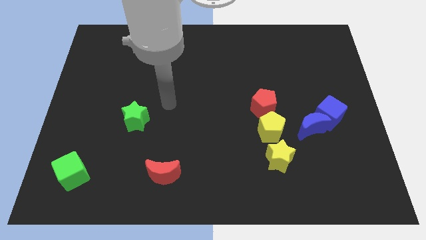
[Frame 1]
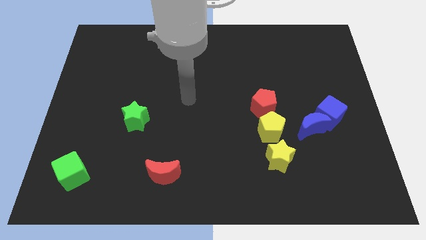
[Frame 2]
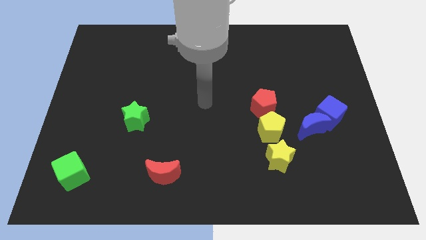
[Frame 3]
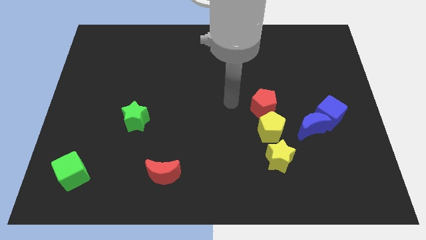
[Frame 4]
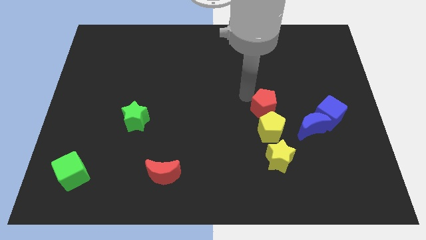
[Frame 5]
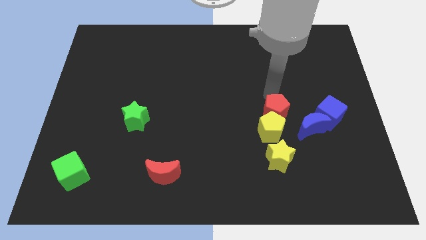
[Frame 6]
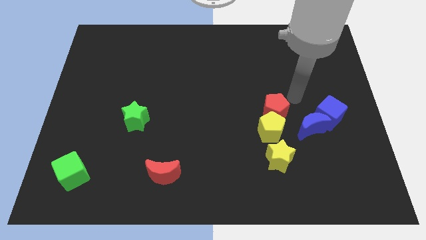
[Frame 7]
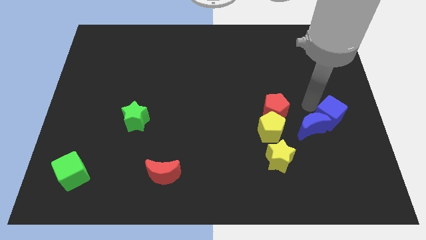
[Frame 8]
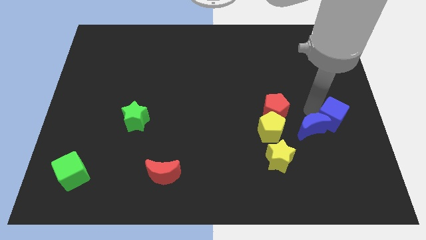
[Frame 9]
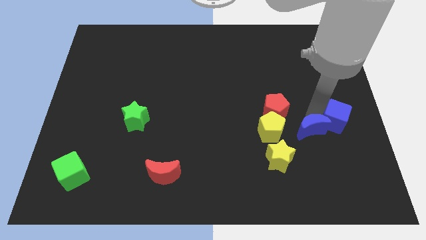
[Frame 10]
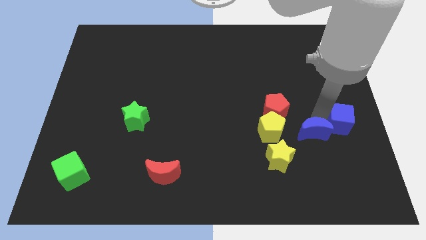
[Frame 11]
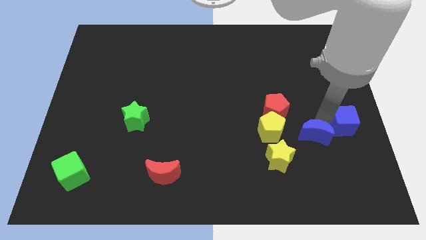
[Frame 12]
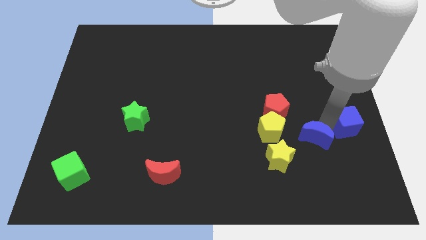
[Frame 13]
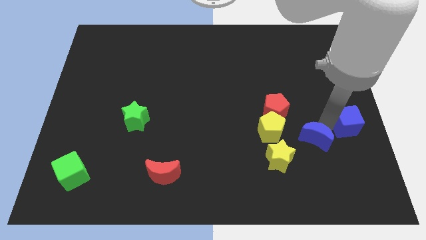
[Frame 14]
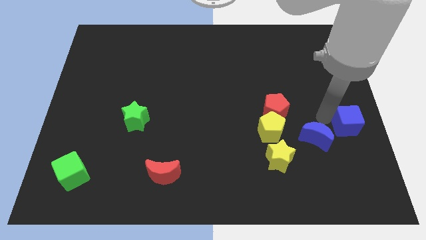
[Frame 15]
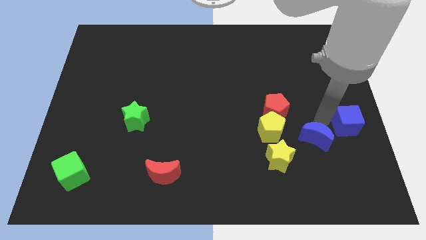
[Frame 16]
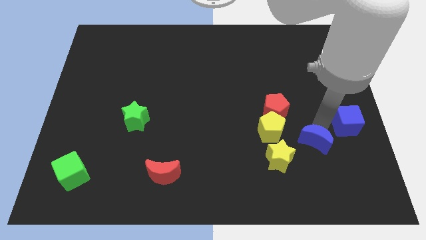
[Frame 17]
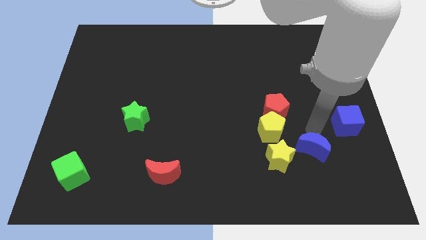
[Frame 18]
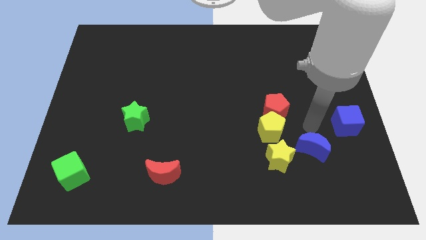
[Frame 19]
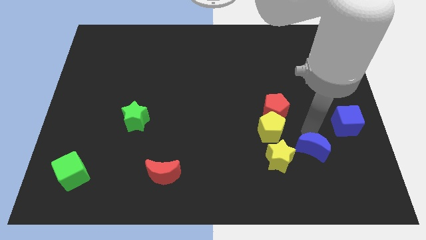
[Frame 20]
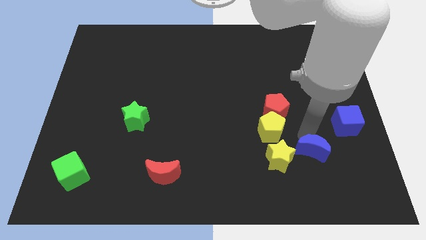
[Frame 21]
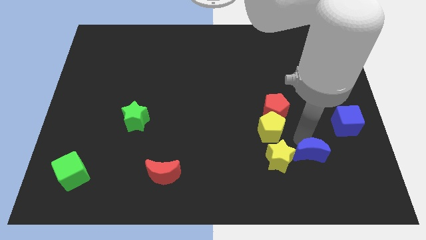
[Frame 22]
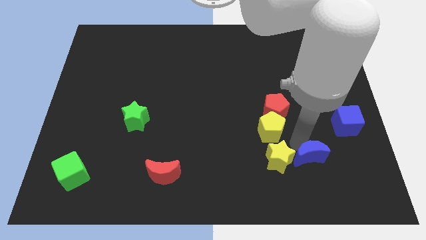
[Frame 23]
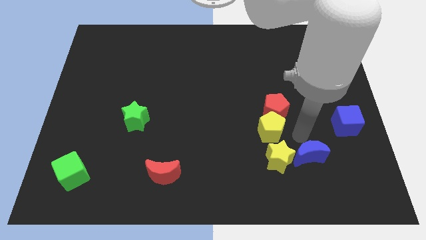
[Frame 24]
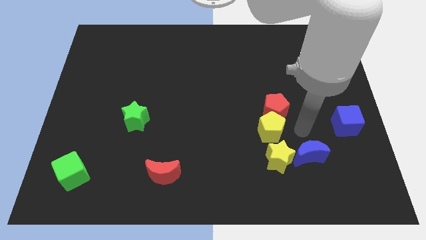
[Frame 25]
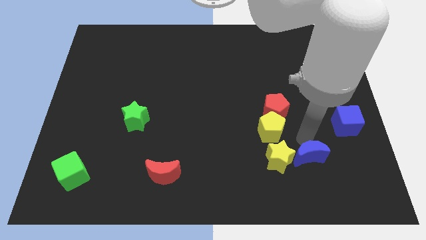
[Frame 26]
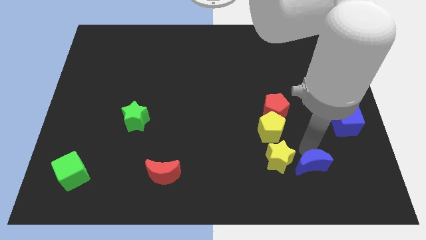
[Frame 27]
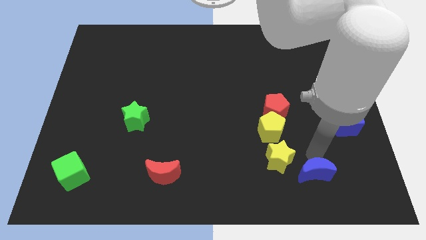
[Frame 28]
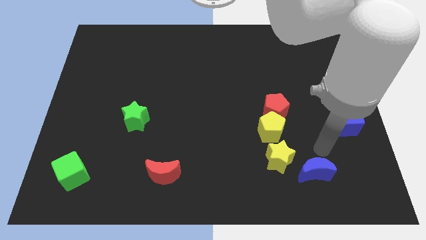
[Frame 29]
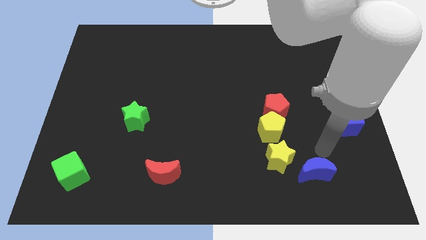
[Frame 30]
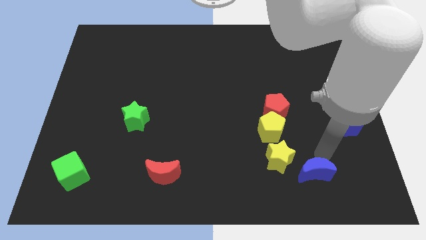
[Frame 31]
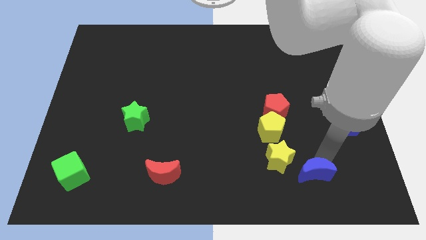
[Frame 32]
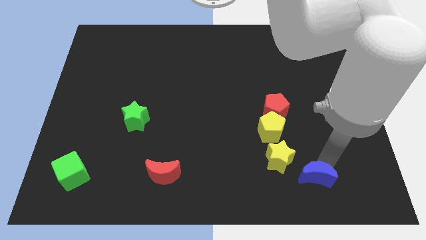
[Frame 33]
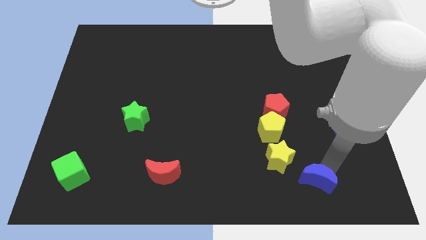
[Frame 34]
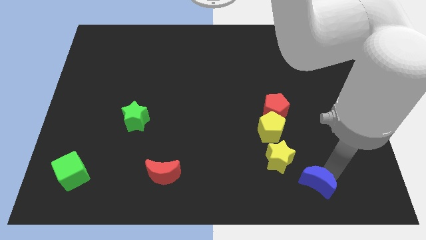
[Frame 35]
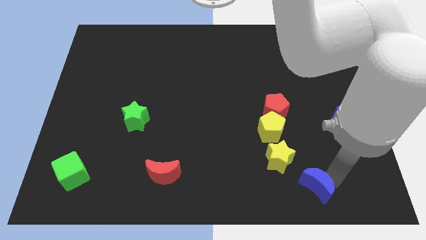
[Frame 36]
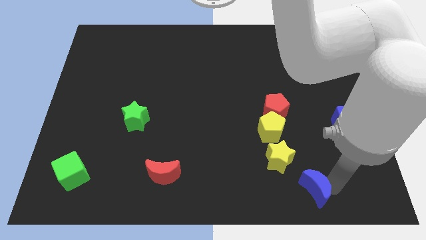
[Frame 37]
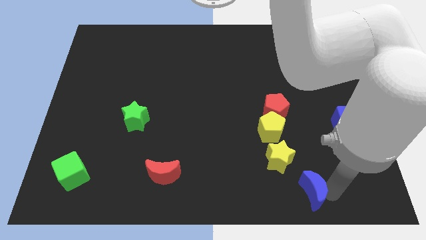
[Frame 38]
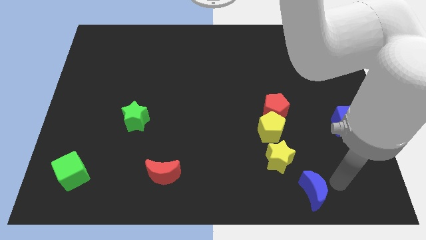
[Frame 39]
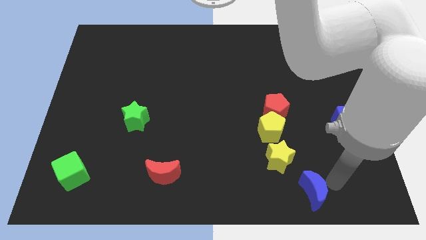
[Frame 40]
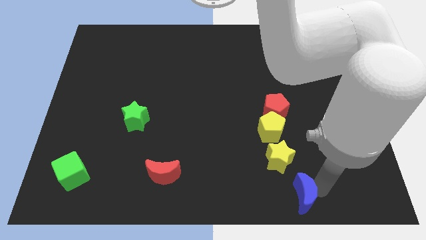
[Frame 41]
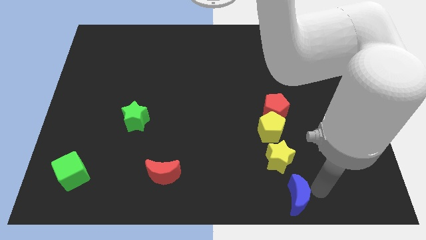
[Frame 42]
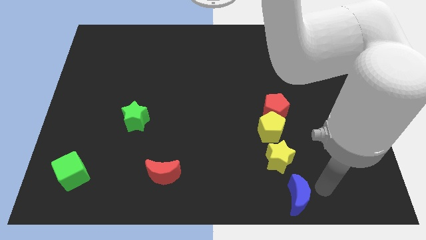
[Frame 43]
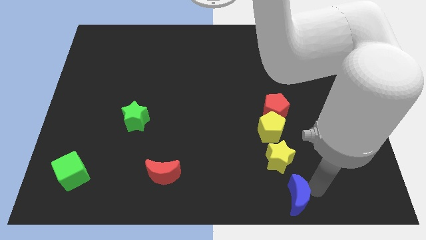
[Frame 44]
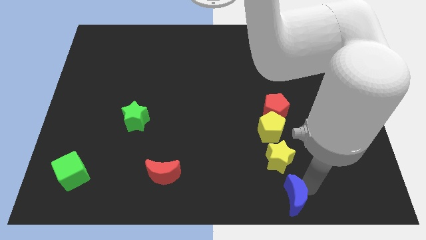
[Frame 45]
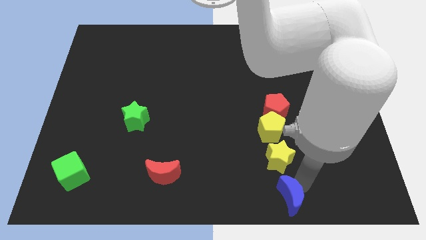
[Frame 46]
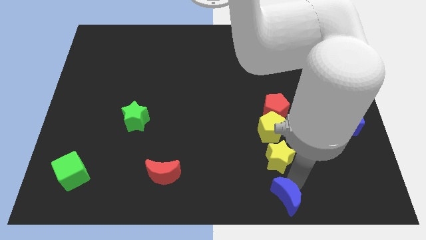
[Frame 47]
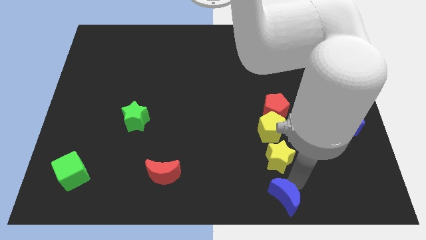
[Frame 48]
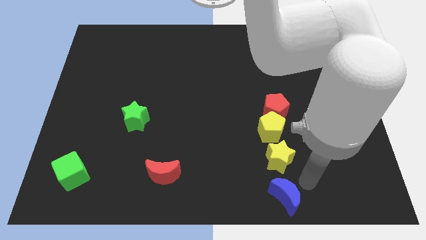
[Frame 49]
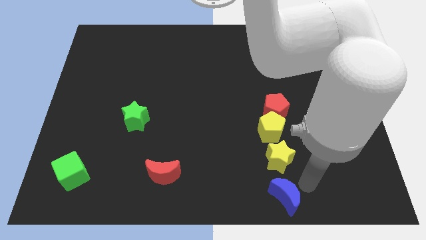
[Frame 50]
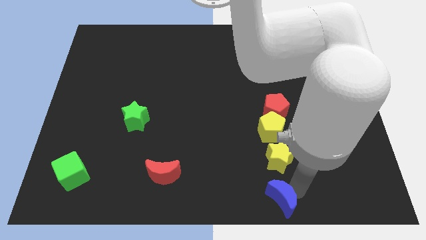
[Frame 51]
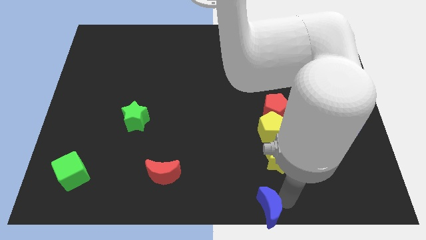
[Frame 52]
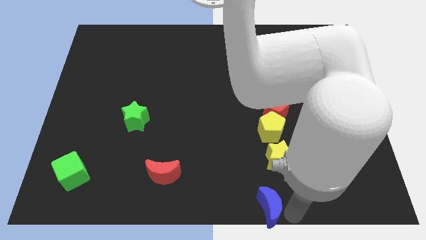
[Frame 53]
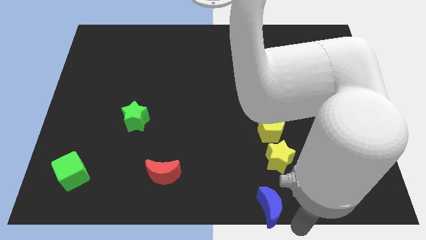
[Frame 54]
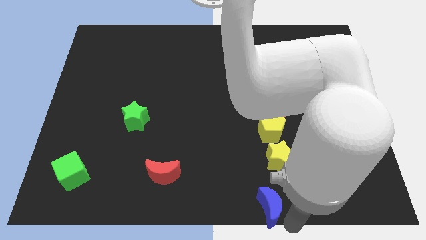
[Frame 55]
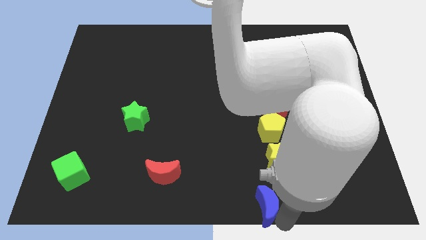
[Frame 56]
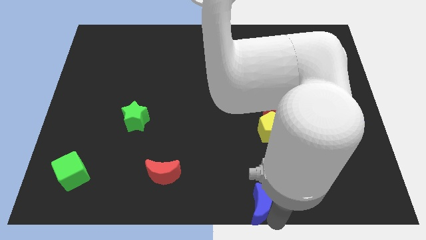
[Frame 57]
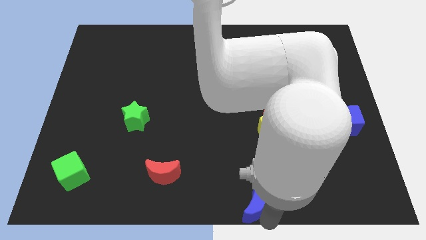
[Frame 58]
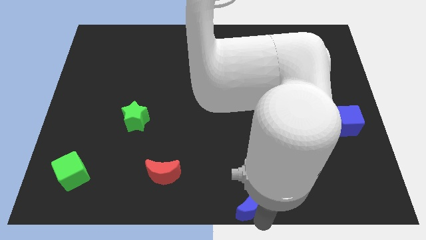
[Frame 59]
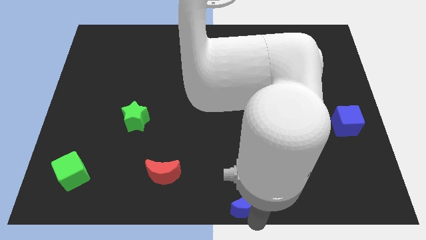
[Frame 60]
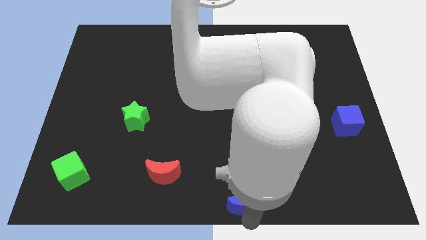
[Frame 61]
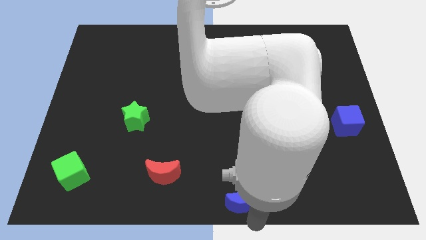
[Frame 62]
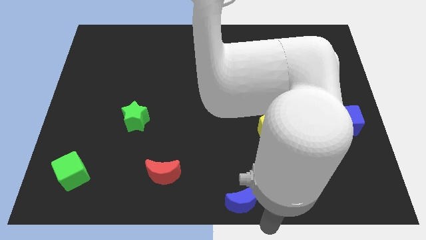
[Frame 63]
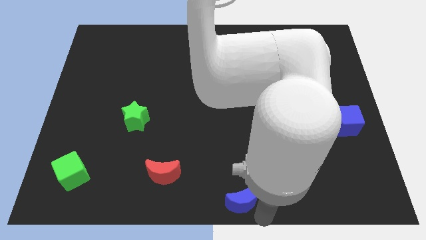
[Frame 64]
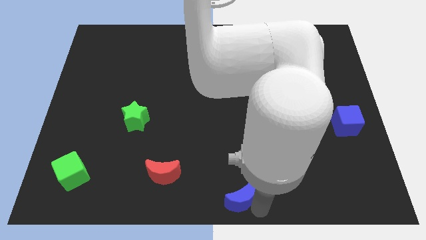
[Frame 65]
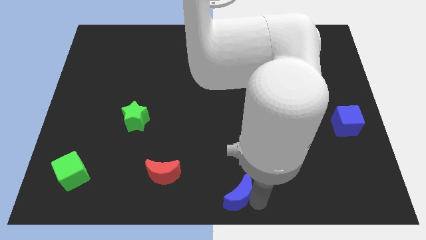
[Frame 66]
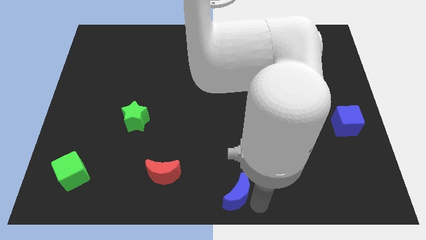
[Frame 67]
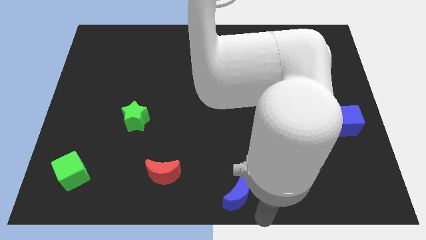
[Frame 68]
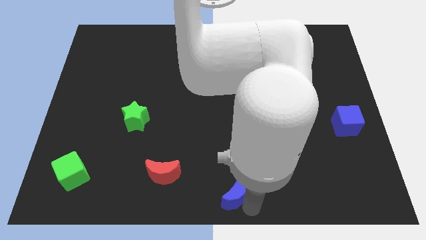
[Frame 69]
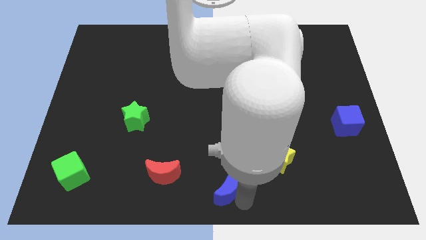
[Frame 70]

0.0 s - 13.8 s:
push the blue moon to the right of the red moon
